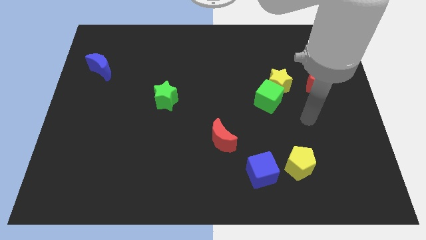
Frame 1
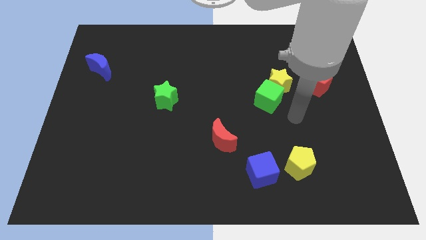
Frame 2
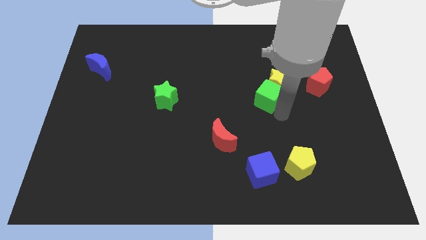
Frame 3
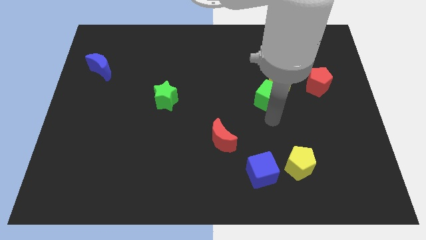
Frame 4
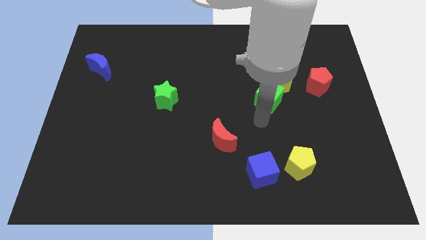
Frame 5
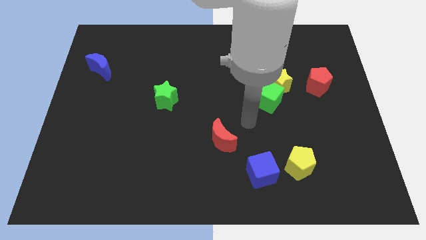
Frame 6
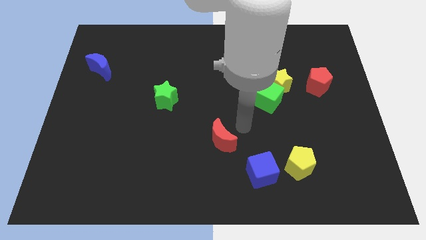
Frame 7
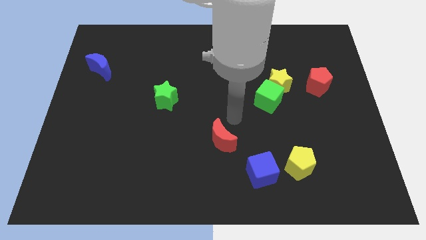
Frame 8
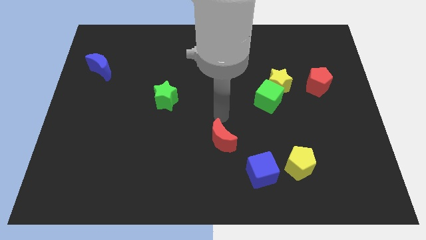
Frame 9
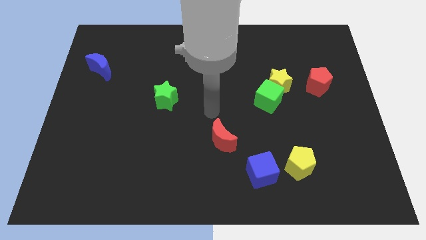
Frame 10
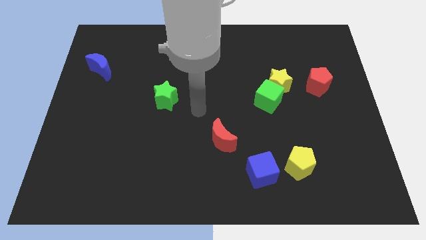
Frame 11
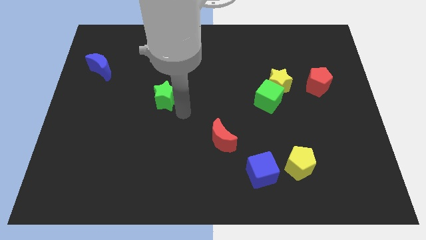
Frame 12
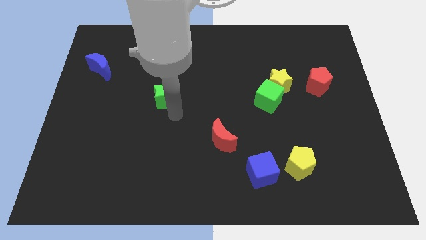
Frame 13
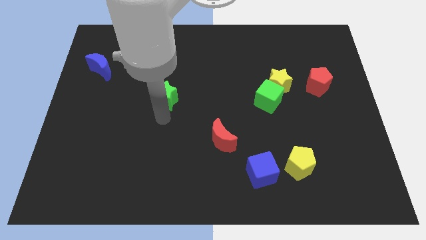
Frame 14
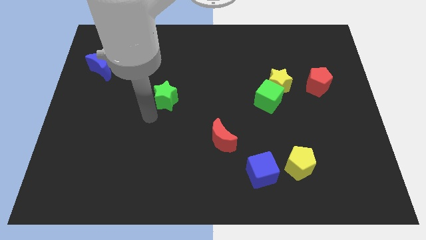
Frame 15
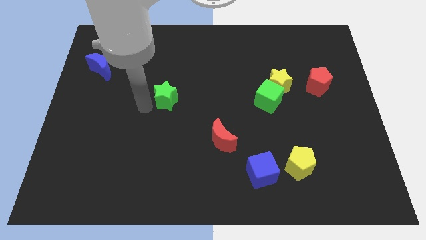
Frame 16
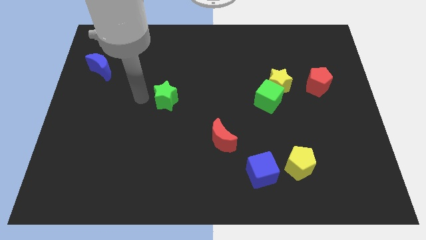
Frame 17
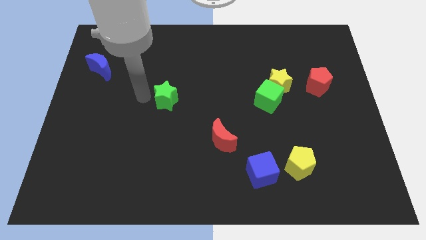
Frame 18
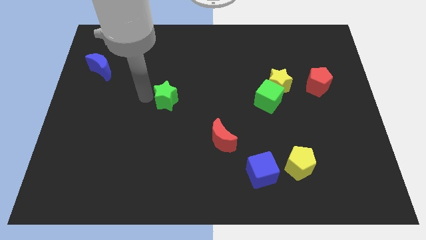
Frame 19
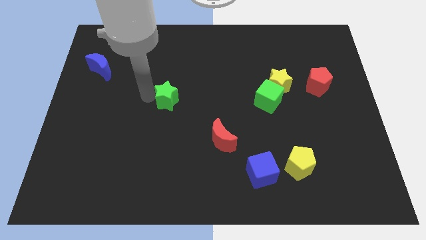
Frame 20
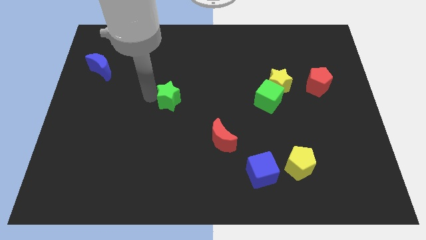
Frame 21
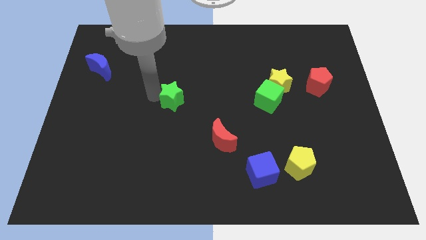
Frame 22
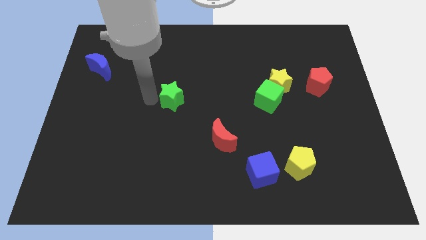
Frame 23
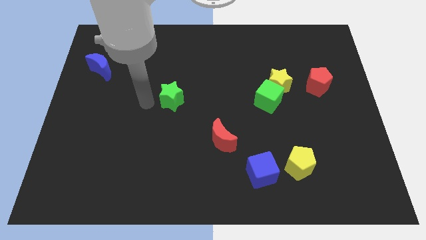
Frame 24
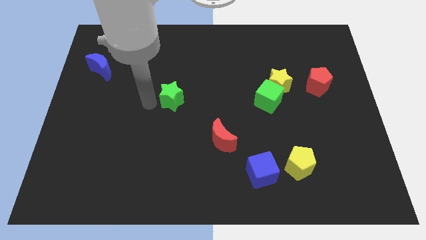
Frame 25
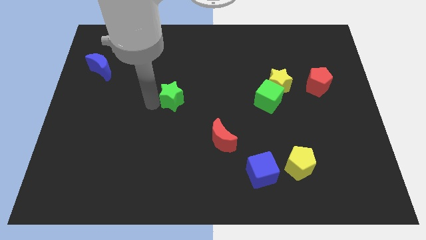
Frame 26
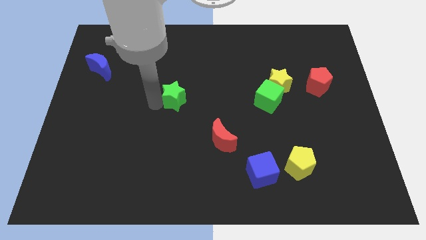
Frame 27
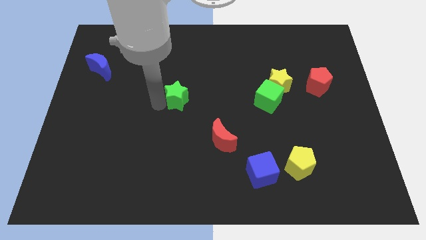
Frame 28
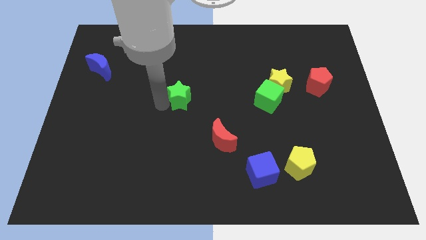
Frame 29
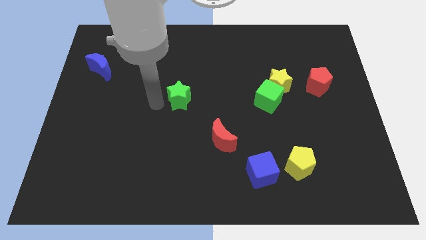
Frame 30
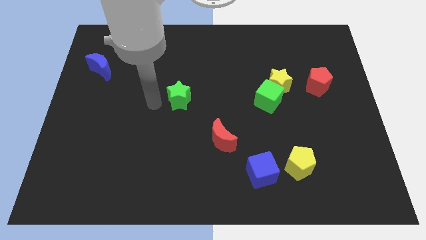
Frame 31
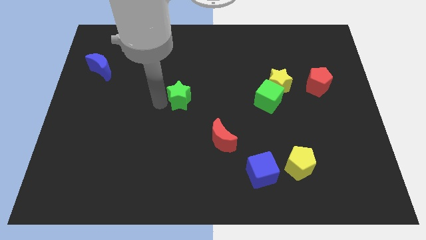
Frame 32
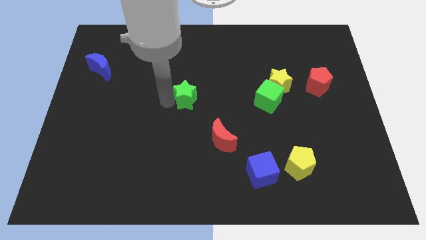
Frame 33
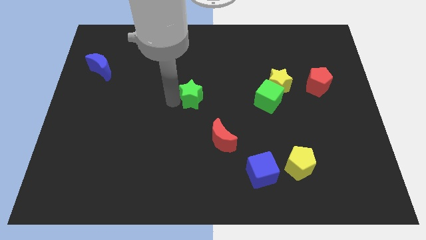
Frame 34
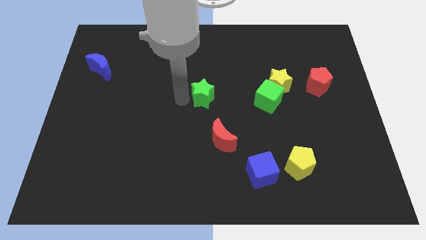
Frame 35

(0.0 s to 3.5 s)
slide the green star right a little

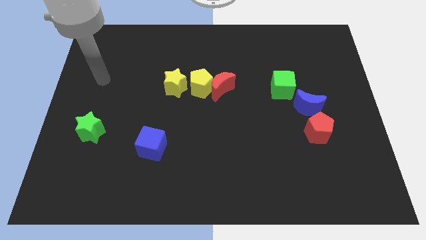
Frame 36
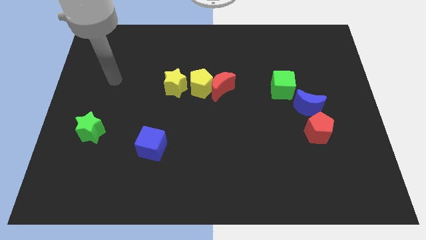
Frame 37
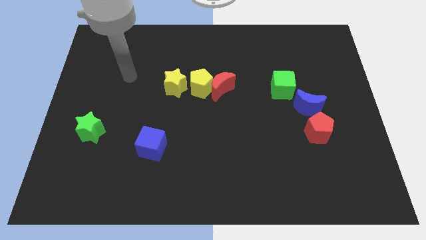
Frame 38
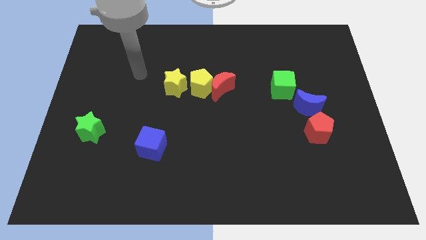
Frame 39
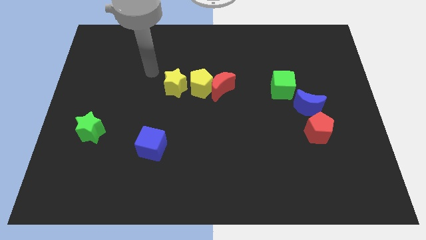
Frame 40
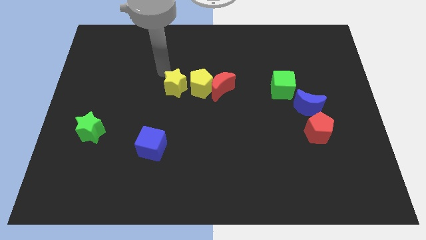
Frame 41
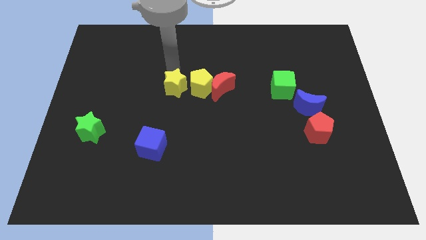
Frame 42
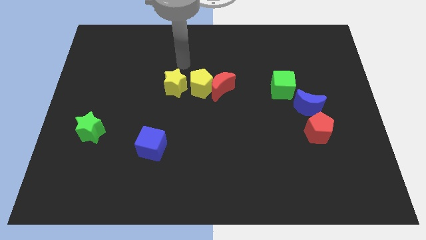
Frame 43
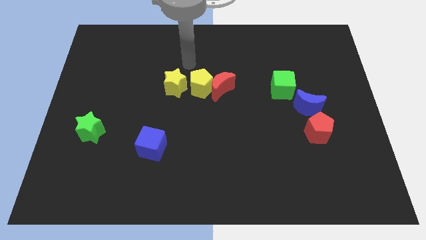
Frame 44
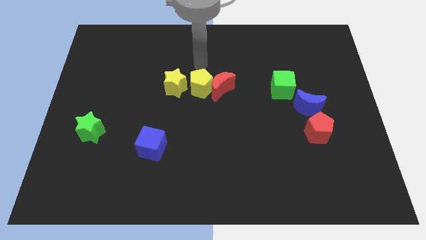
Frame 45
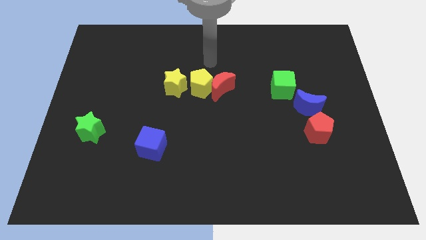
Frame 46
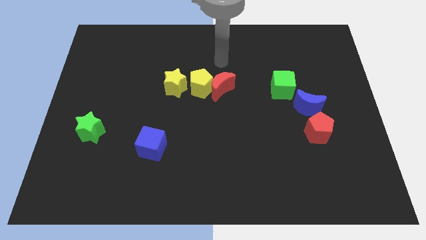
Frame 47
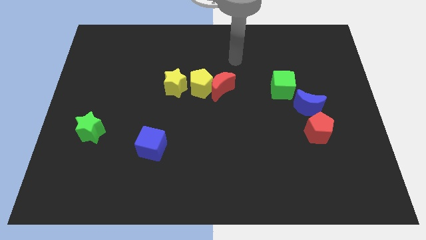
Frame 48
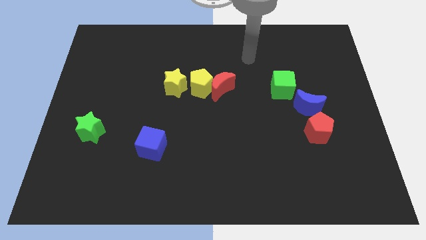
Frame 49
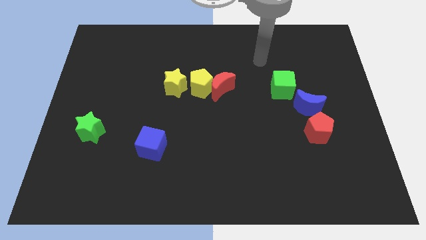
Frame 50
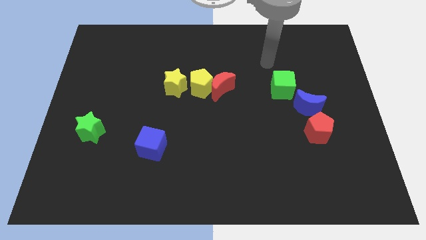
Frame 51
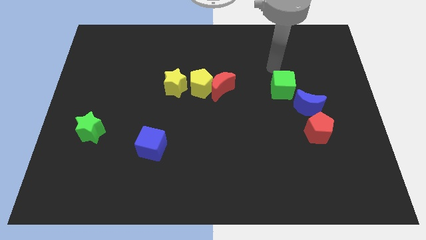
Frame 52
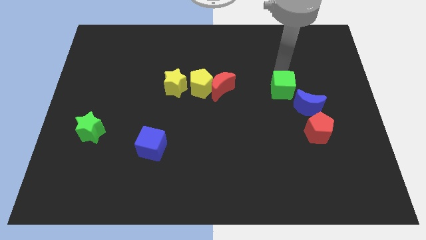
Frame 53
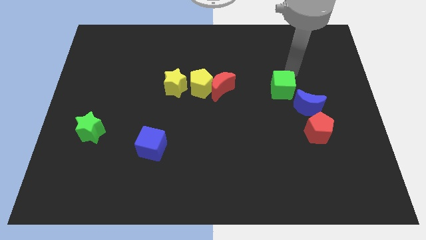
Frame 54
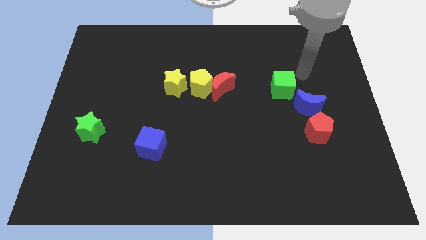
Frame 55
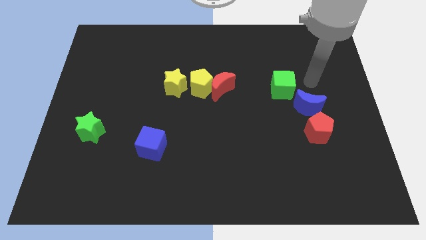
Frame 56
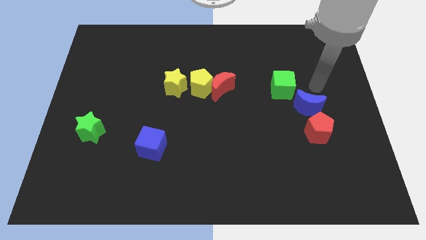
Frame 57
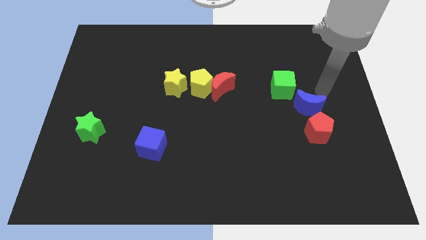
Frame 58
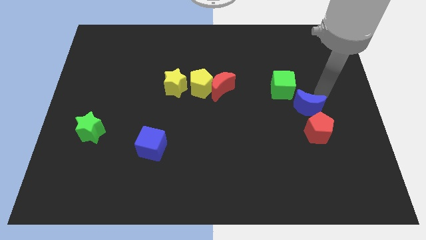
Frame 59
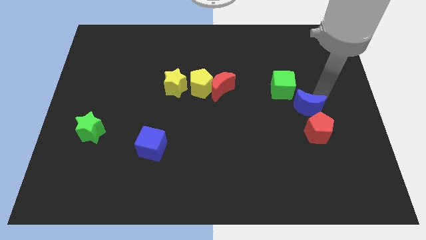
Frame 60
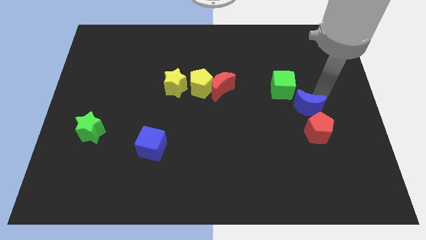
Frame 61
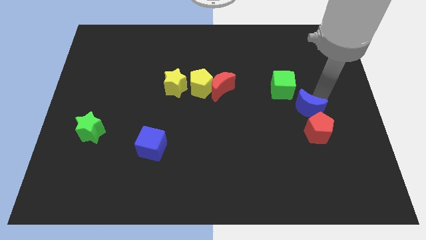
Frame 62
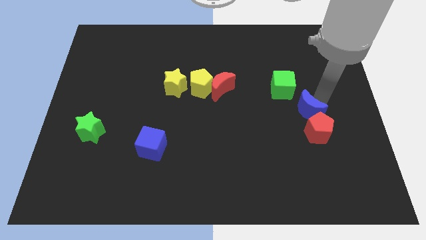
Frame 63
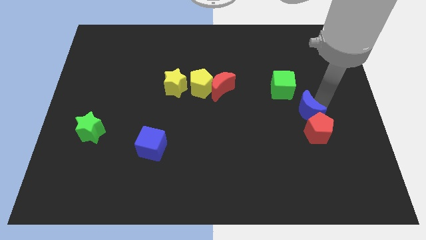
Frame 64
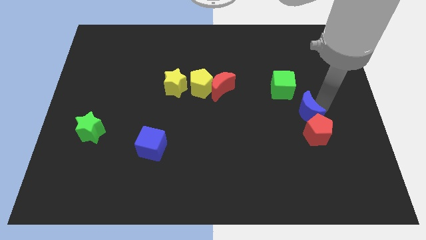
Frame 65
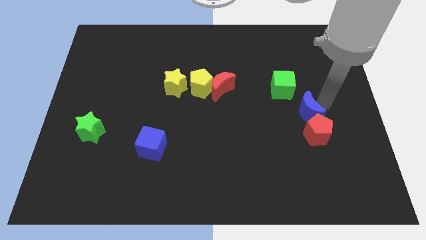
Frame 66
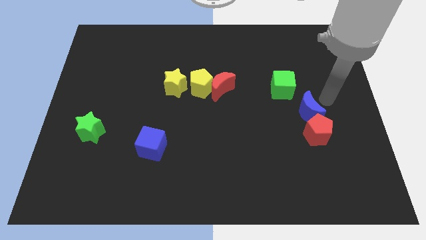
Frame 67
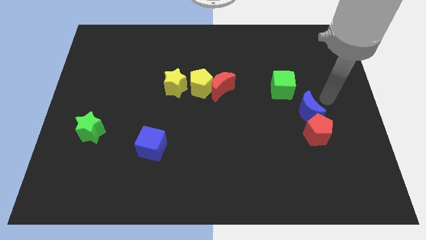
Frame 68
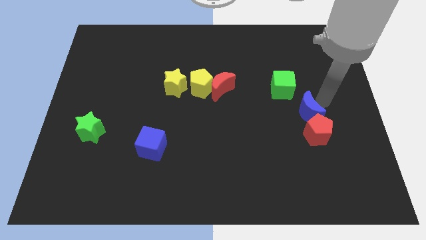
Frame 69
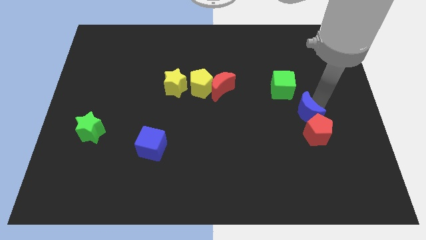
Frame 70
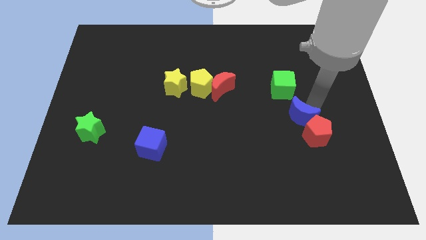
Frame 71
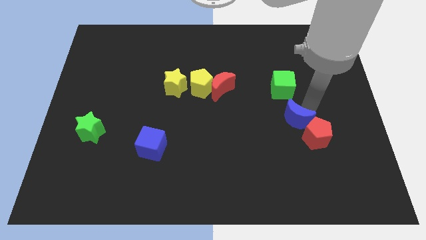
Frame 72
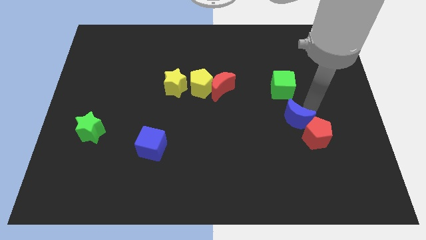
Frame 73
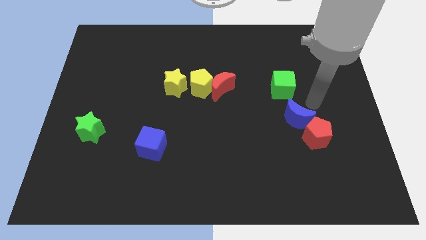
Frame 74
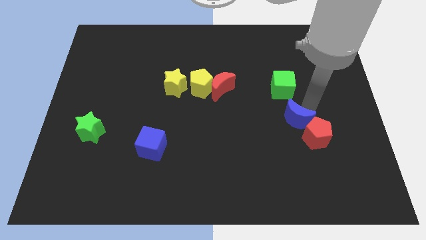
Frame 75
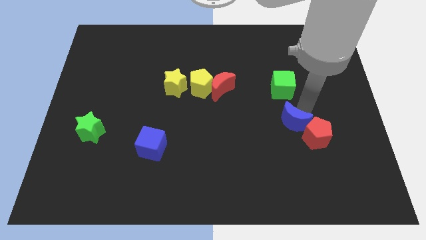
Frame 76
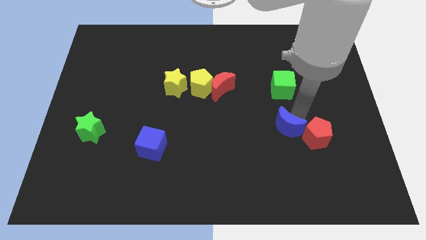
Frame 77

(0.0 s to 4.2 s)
slightly move the blue moon down and left diagonally

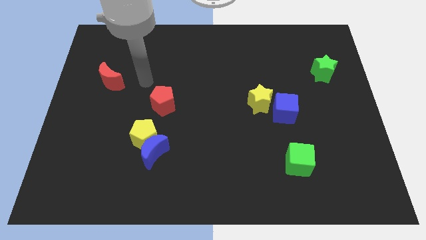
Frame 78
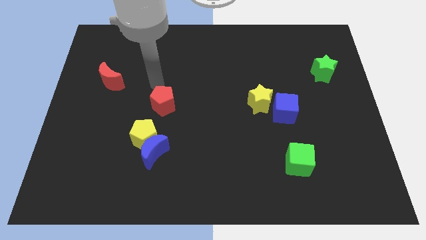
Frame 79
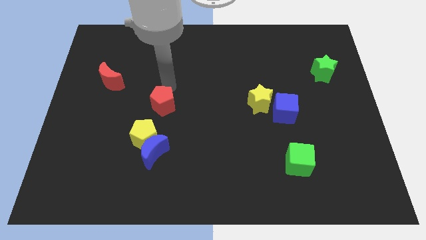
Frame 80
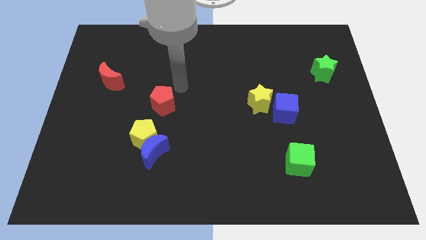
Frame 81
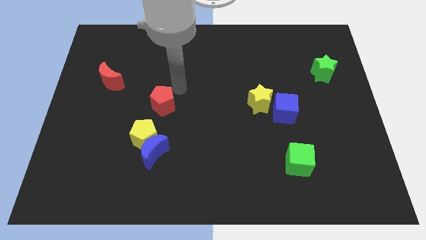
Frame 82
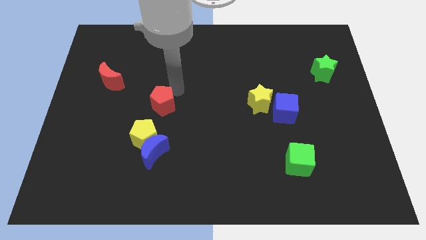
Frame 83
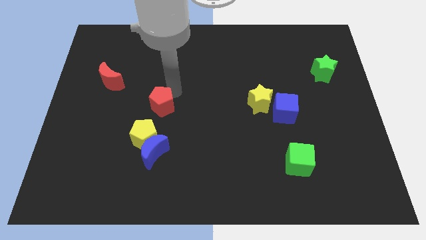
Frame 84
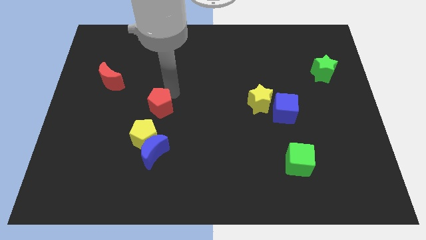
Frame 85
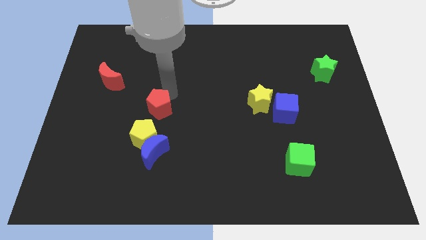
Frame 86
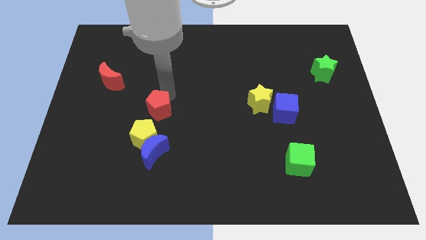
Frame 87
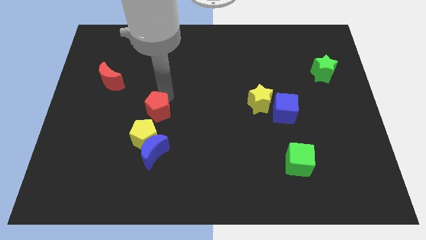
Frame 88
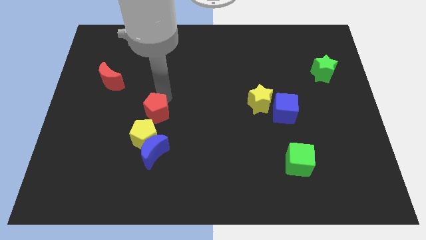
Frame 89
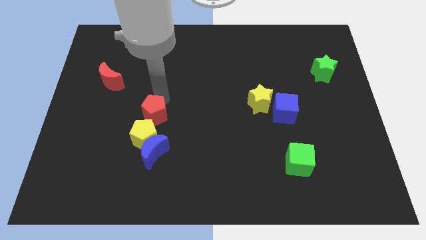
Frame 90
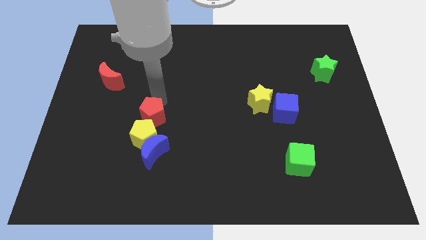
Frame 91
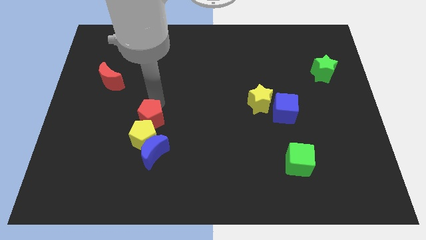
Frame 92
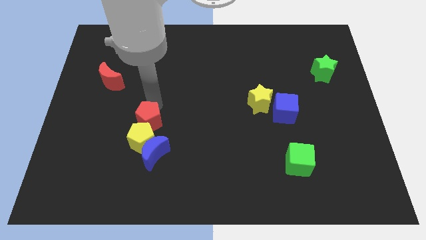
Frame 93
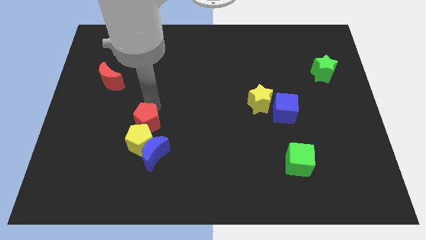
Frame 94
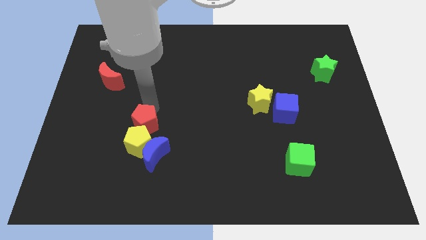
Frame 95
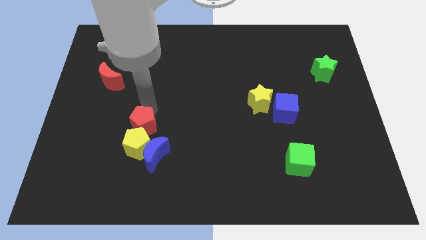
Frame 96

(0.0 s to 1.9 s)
slide the red pentagon a little bit down and left
